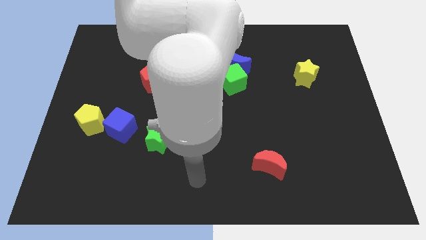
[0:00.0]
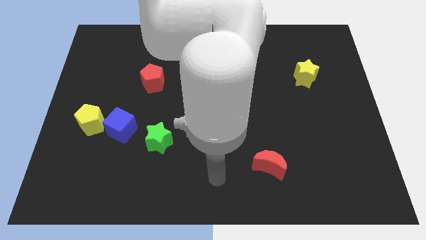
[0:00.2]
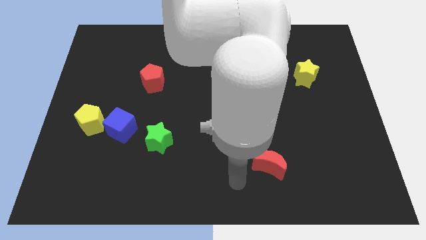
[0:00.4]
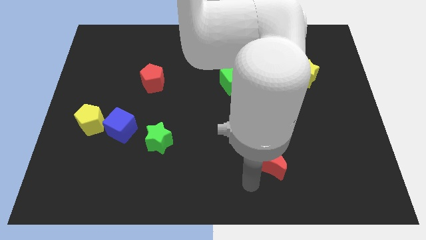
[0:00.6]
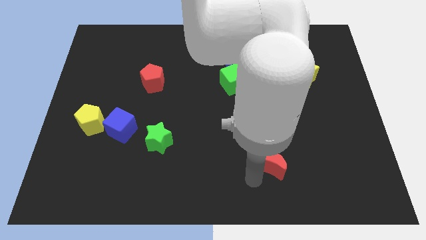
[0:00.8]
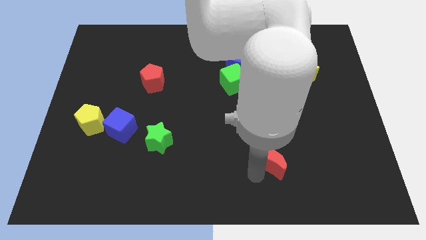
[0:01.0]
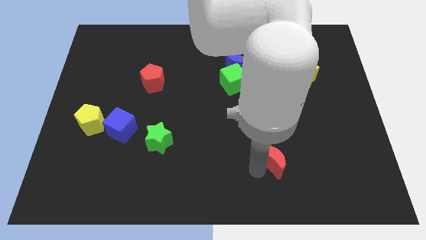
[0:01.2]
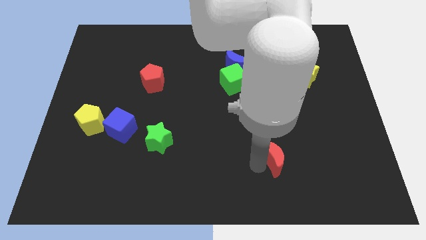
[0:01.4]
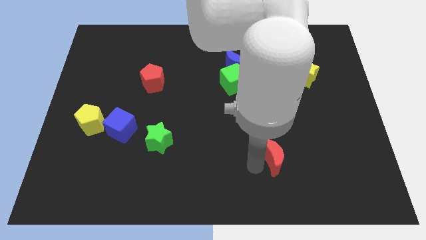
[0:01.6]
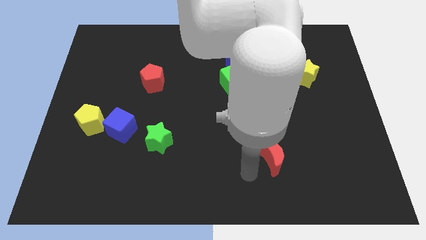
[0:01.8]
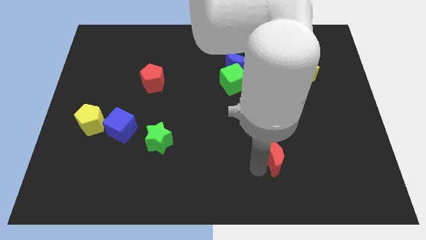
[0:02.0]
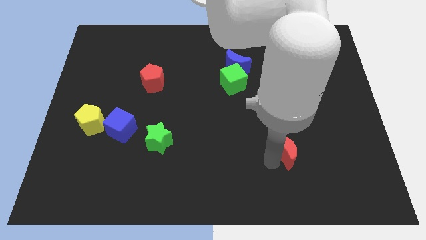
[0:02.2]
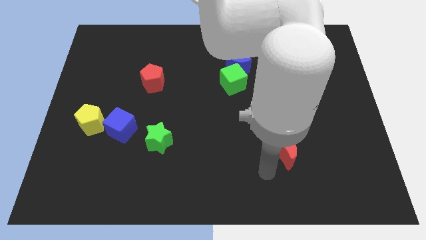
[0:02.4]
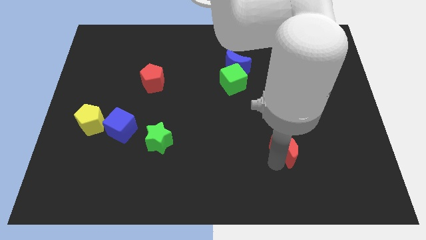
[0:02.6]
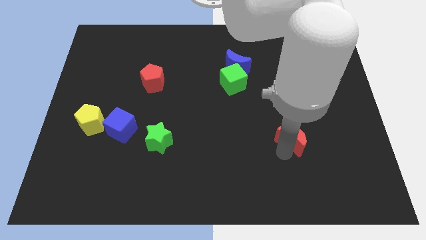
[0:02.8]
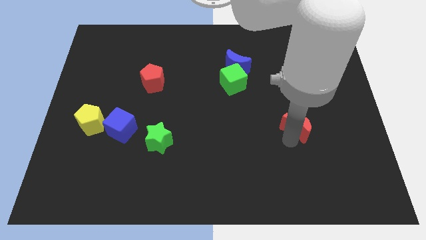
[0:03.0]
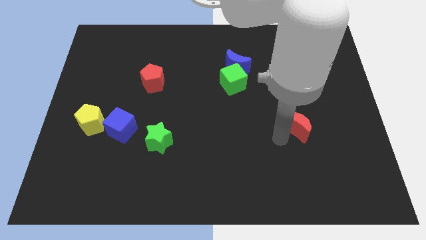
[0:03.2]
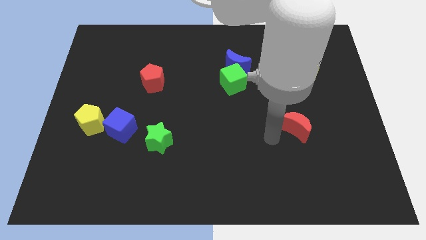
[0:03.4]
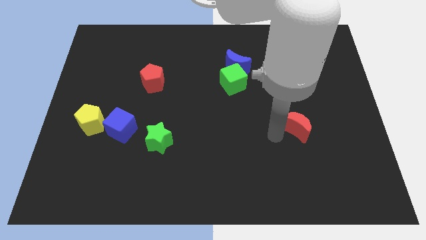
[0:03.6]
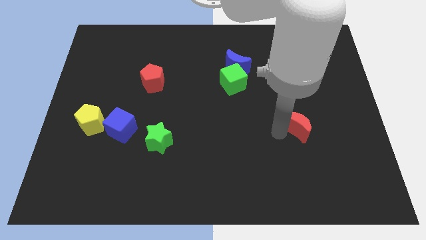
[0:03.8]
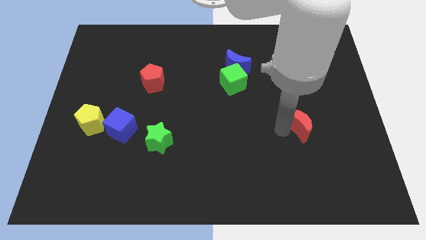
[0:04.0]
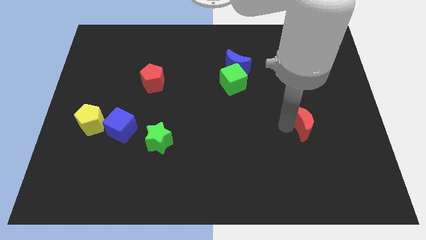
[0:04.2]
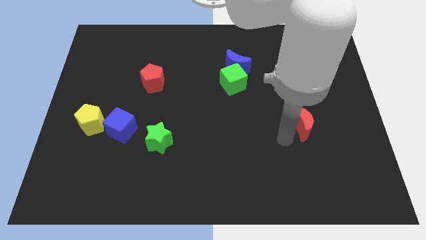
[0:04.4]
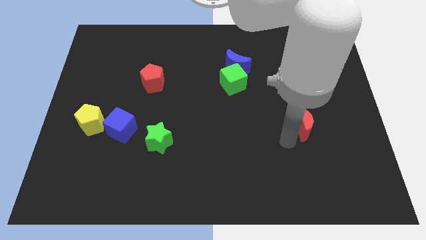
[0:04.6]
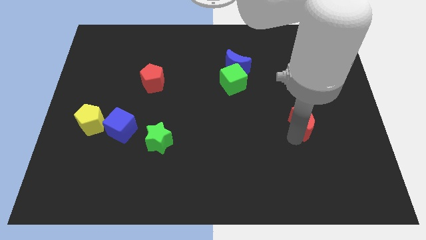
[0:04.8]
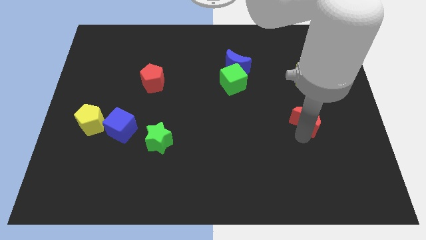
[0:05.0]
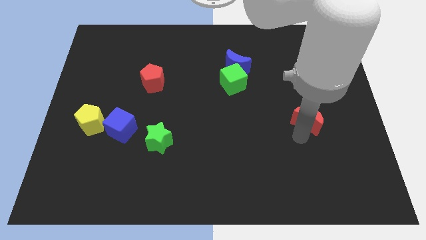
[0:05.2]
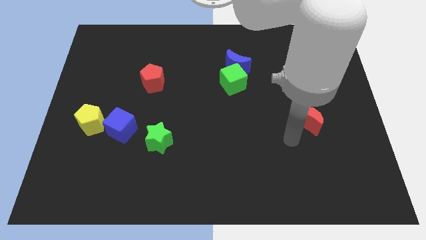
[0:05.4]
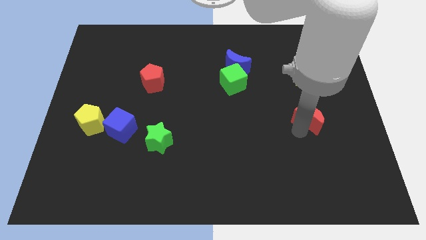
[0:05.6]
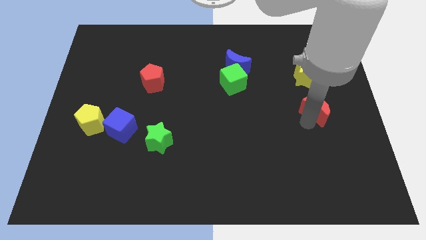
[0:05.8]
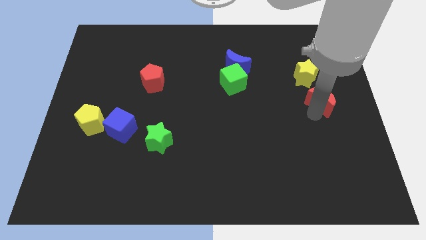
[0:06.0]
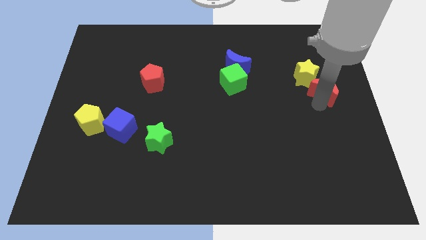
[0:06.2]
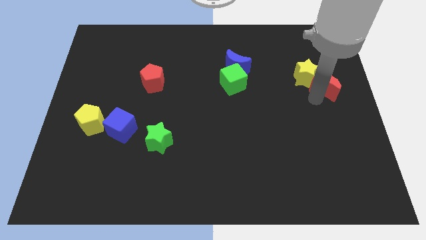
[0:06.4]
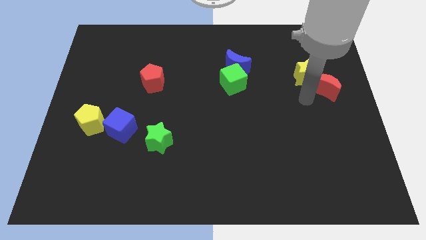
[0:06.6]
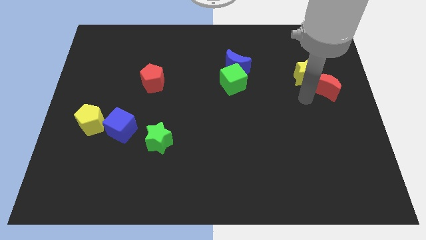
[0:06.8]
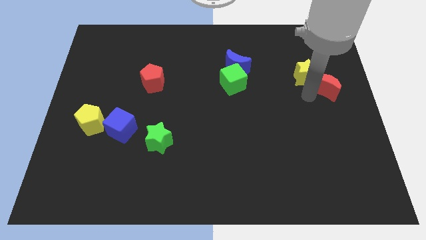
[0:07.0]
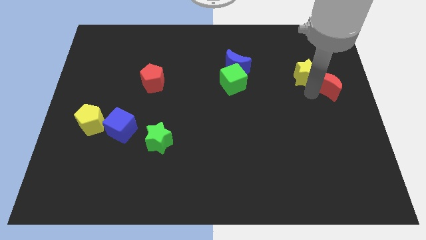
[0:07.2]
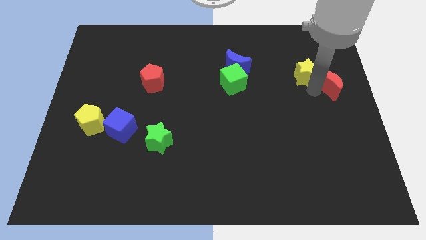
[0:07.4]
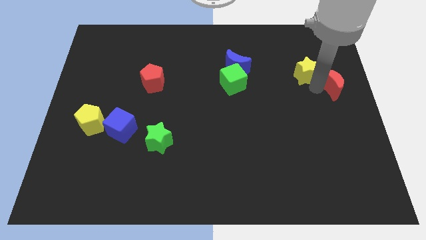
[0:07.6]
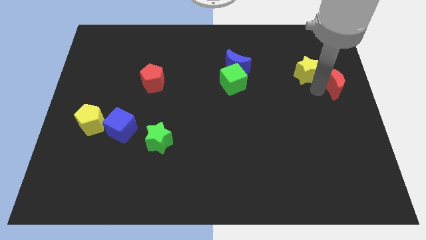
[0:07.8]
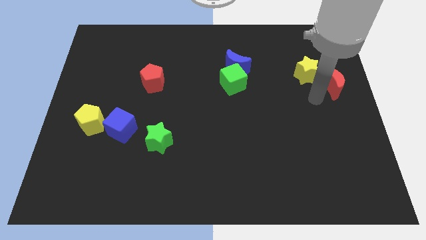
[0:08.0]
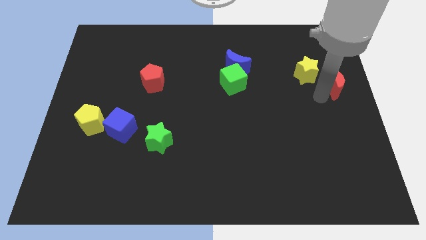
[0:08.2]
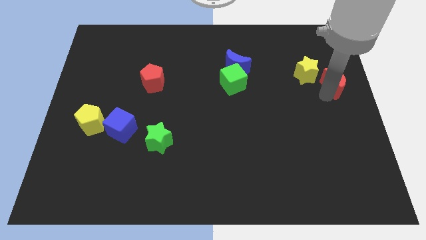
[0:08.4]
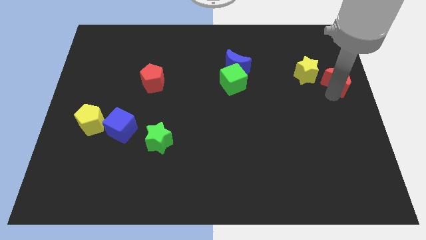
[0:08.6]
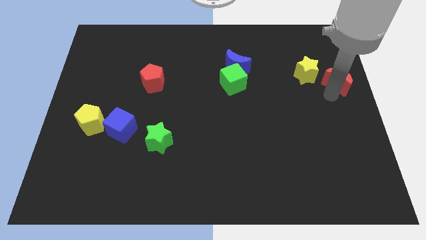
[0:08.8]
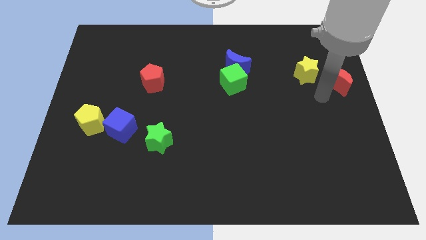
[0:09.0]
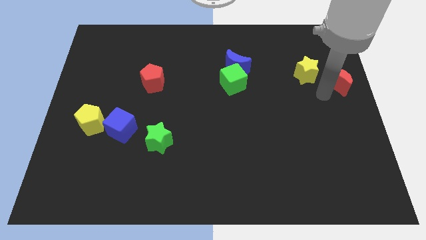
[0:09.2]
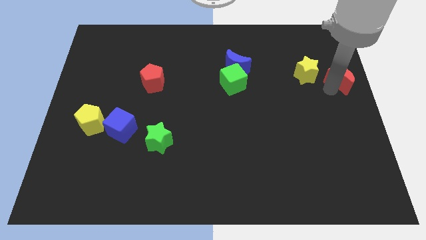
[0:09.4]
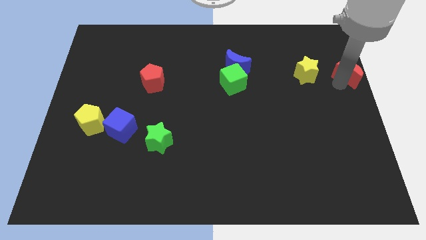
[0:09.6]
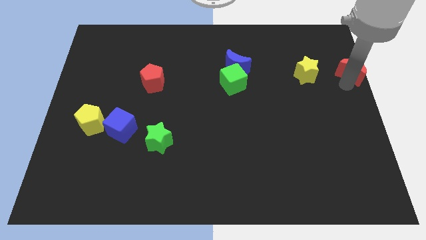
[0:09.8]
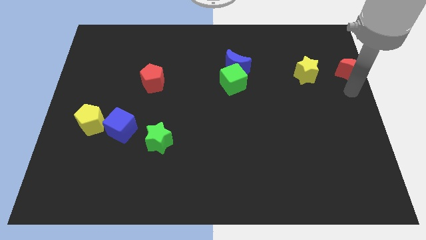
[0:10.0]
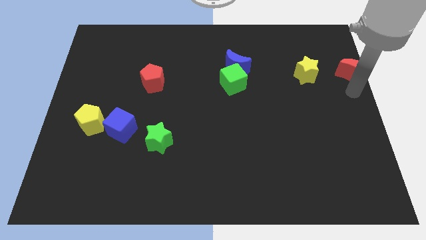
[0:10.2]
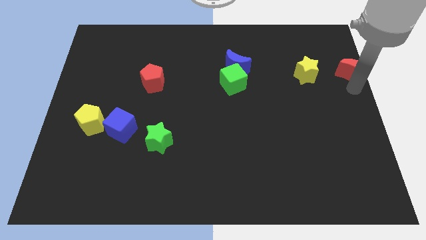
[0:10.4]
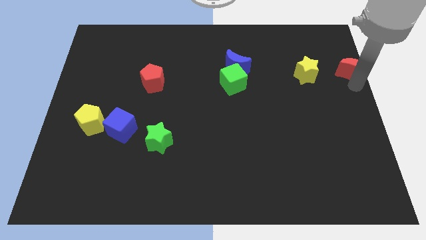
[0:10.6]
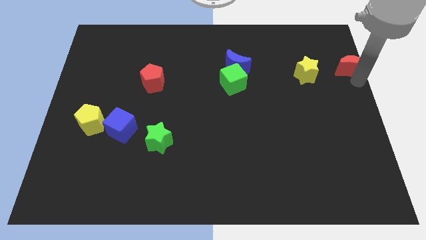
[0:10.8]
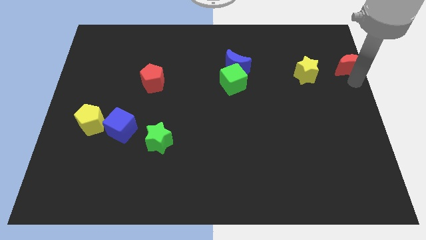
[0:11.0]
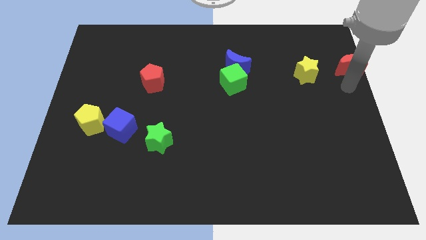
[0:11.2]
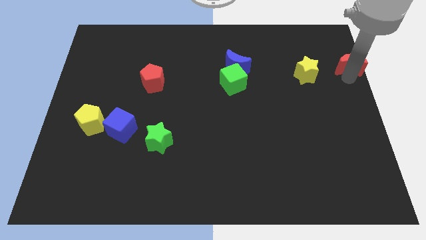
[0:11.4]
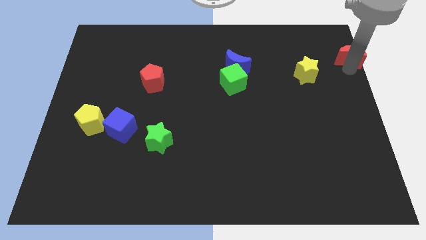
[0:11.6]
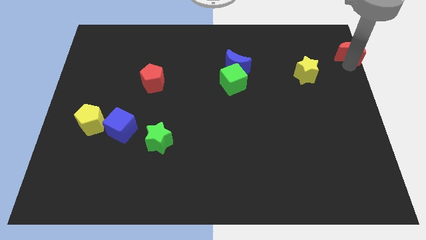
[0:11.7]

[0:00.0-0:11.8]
put the red moon to the top right corner
